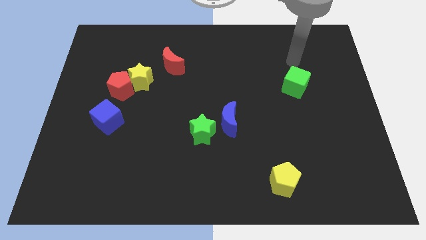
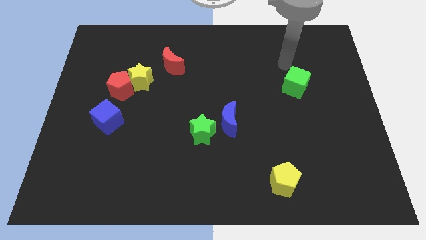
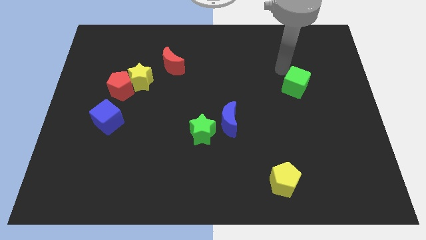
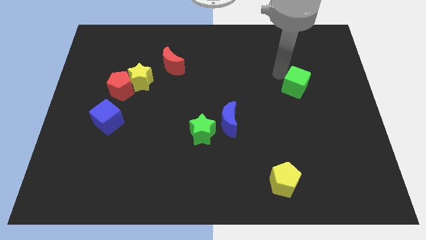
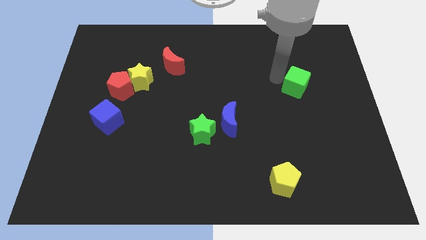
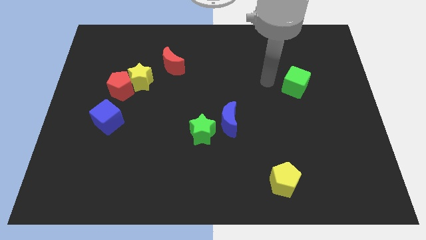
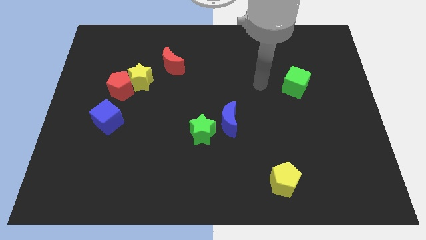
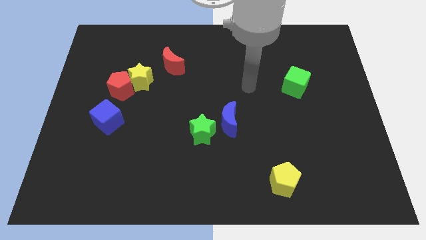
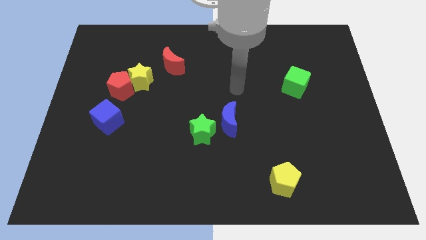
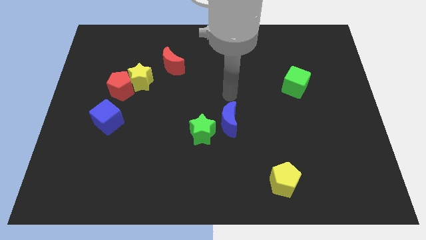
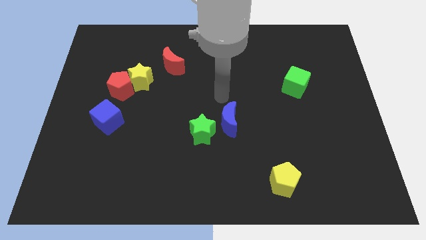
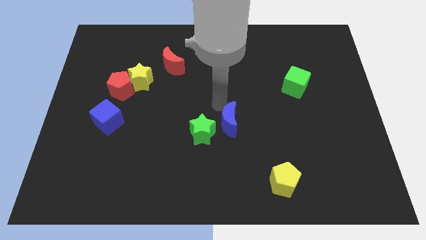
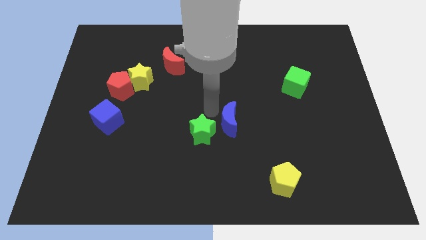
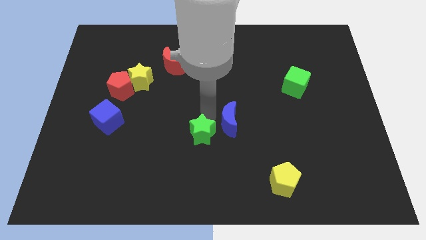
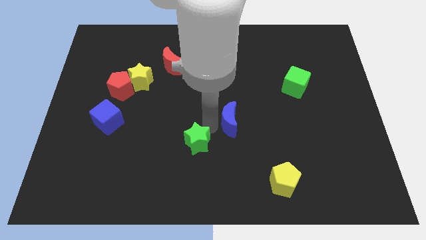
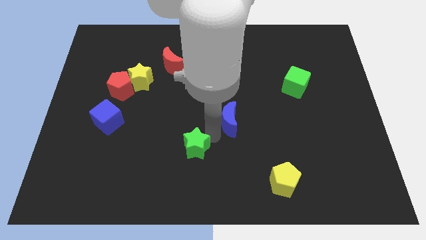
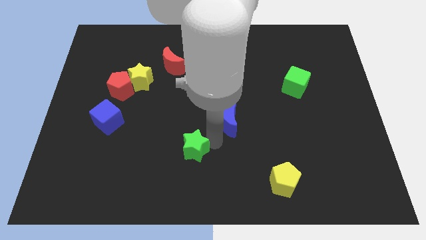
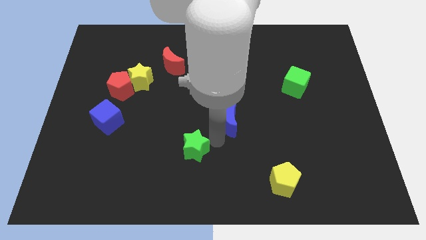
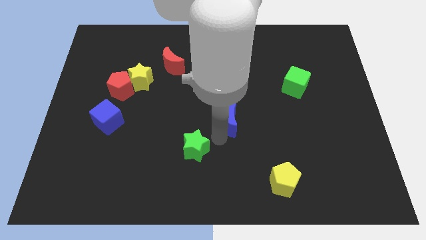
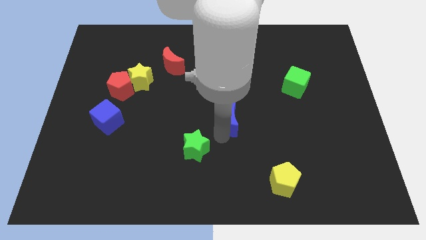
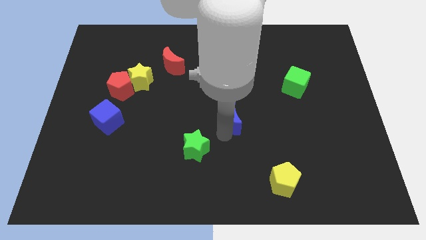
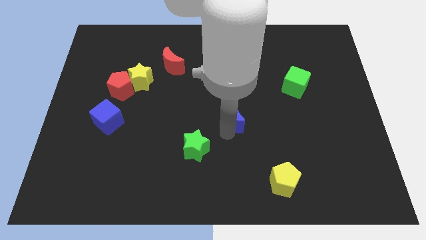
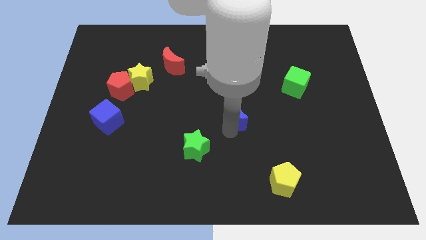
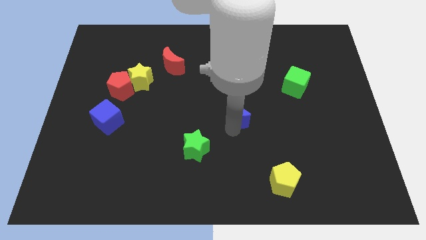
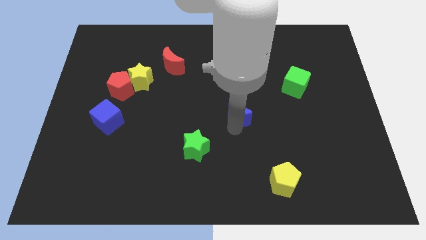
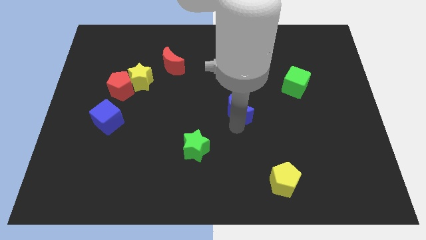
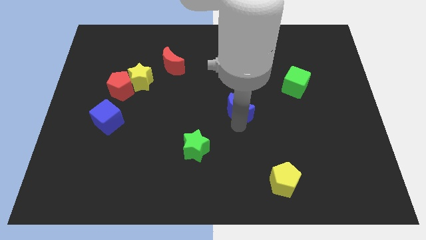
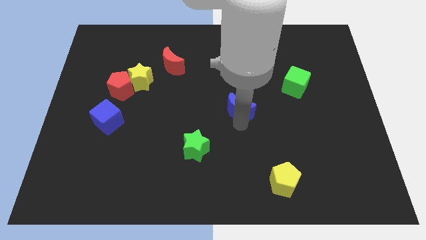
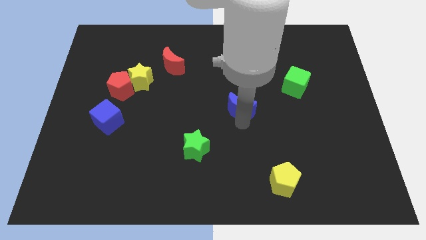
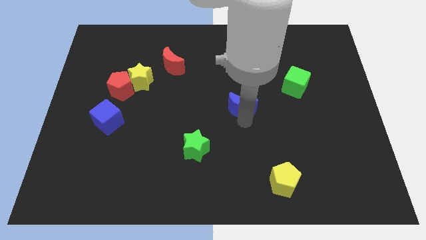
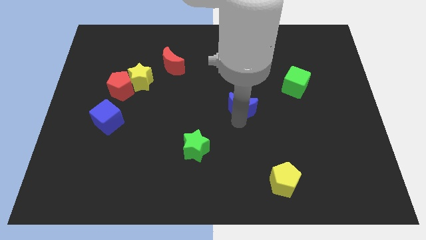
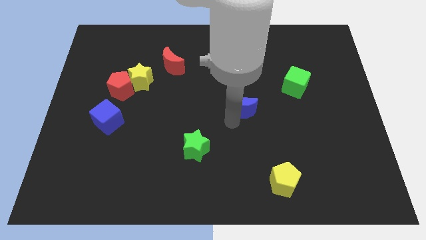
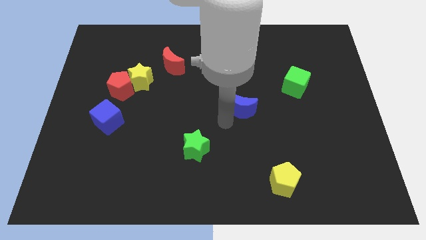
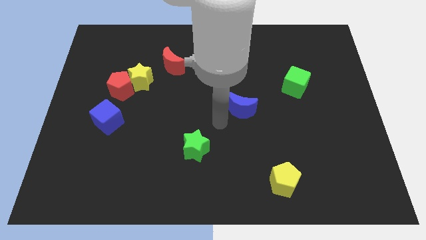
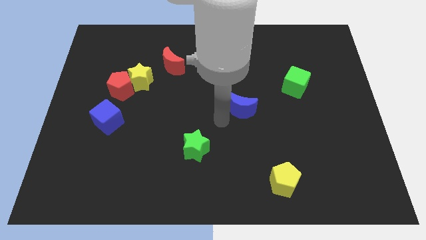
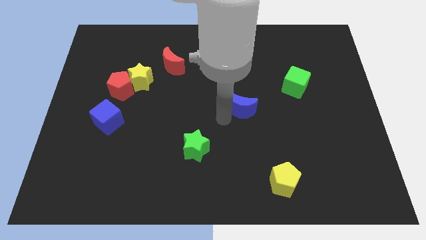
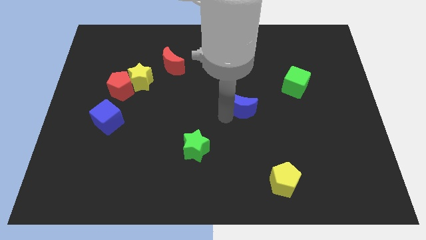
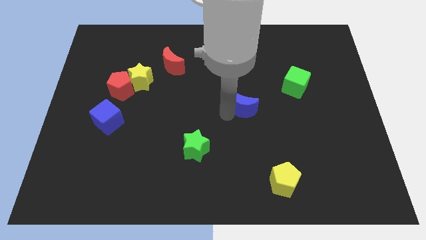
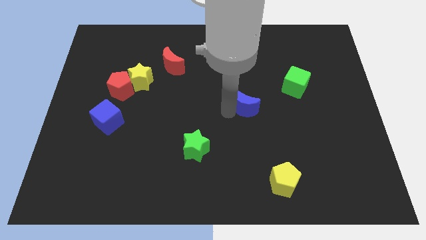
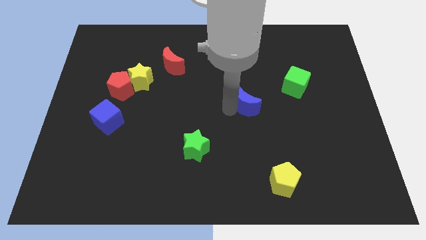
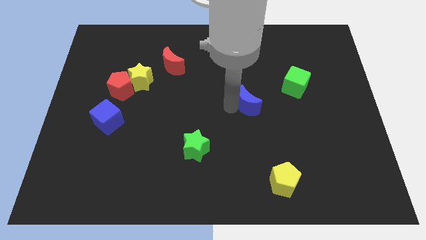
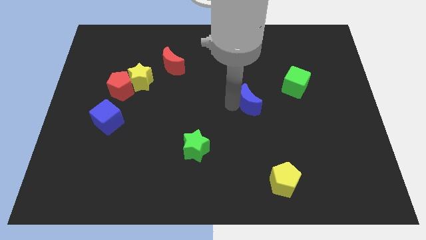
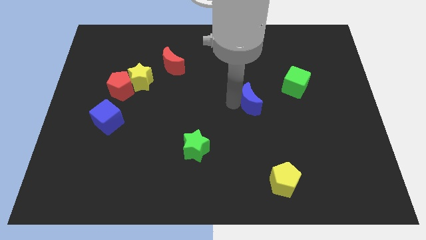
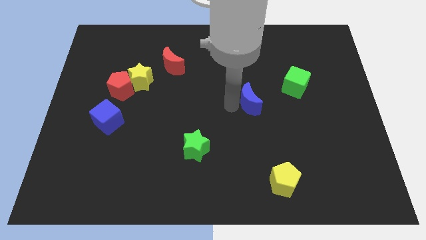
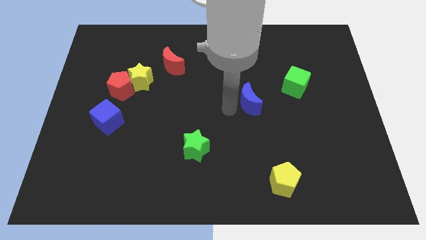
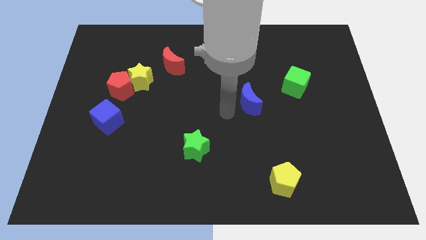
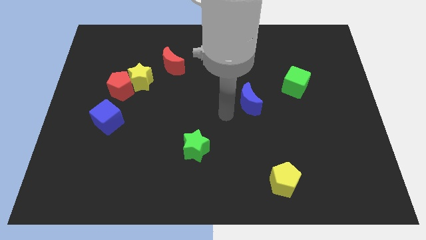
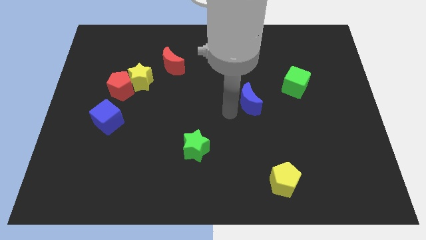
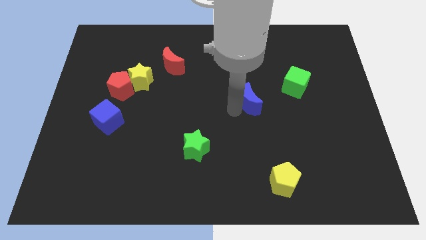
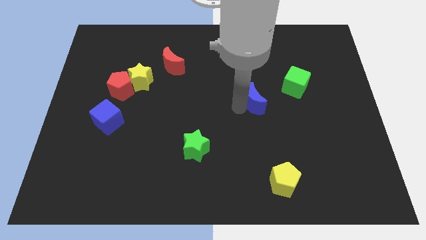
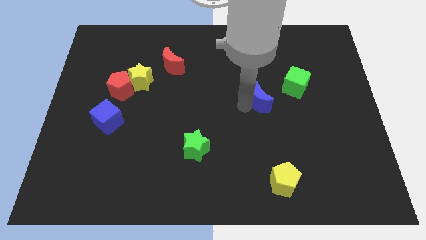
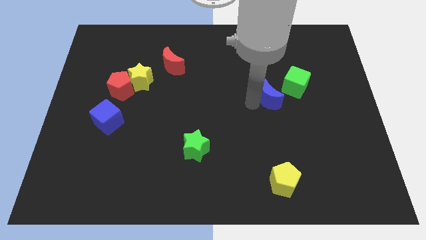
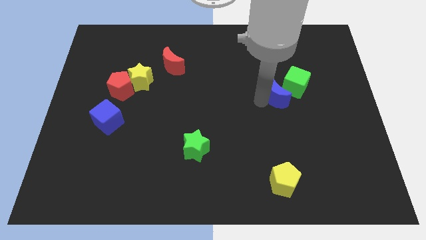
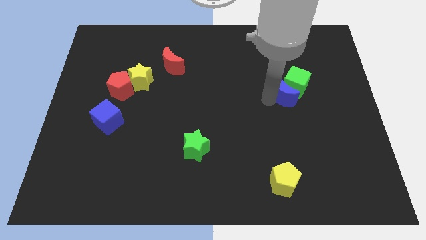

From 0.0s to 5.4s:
move the blue moon next to the green cube

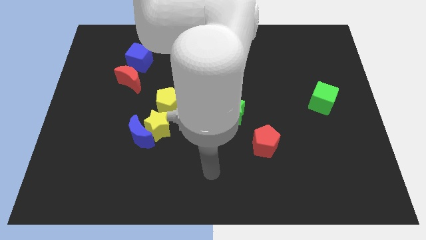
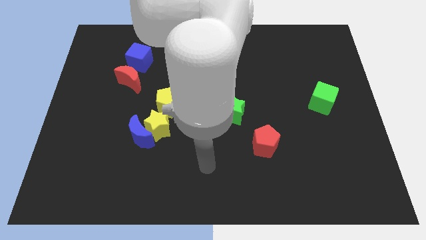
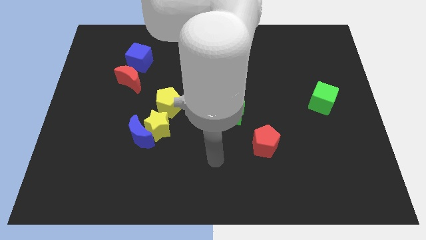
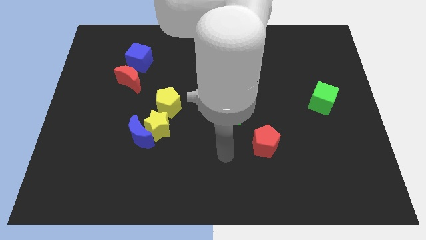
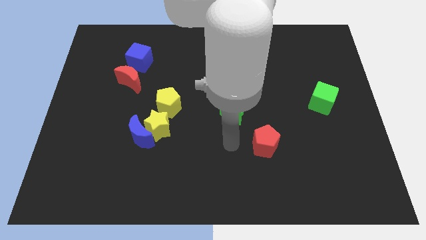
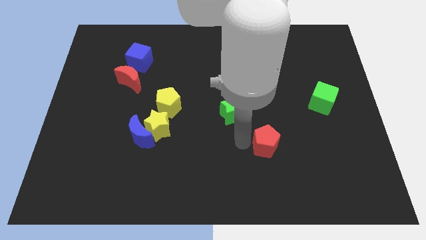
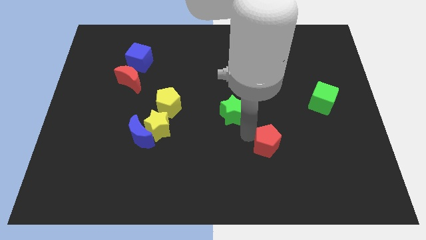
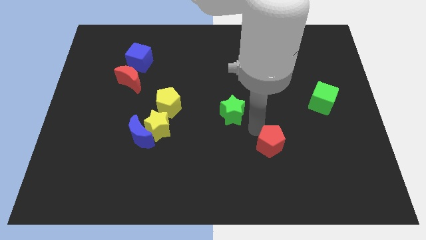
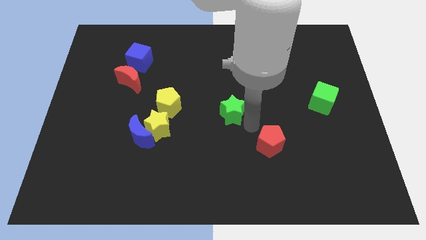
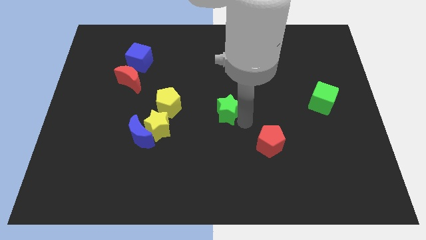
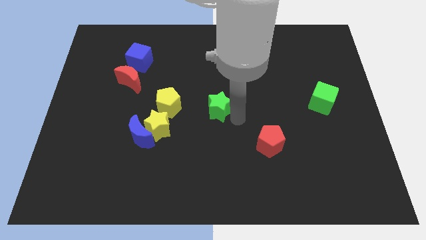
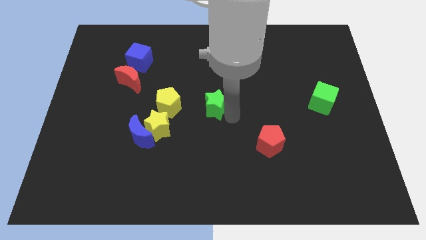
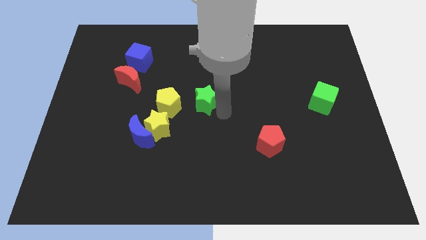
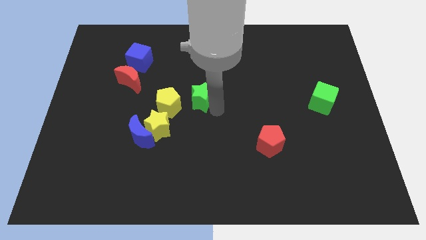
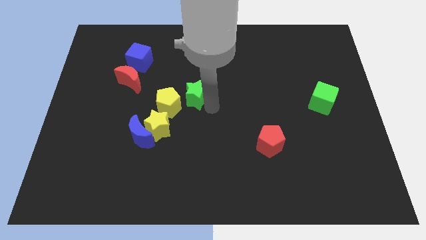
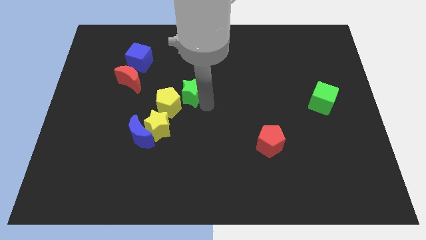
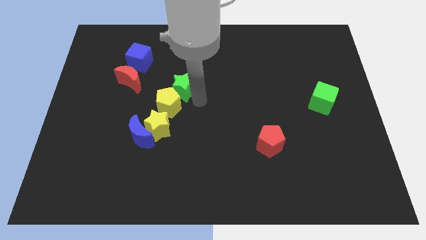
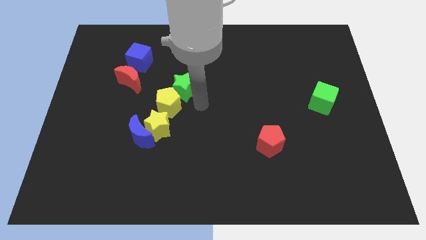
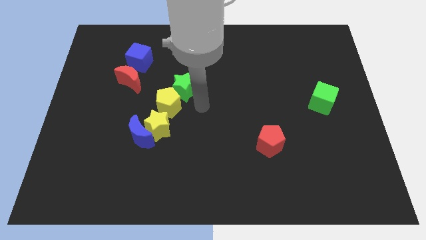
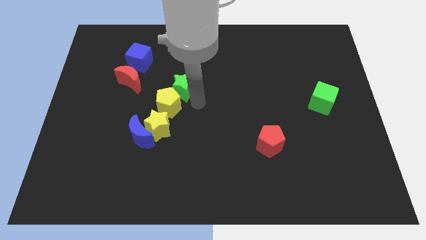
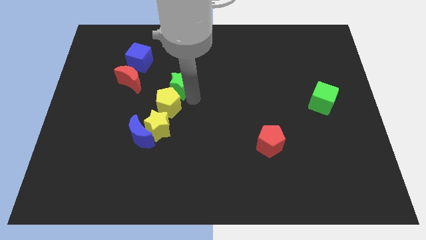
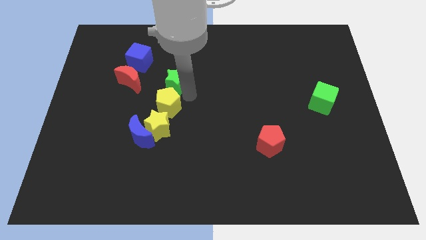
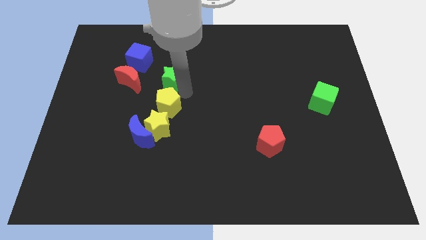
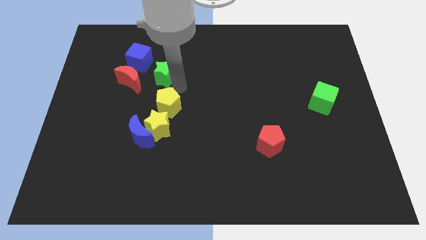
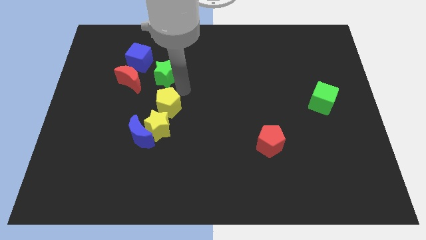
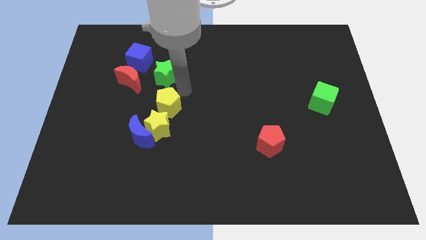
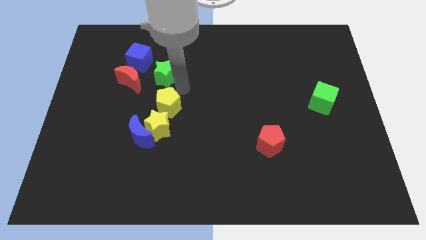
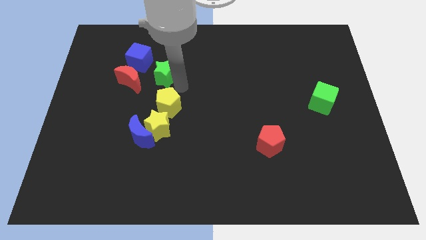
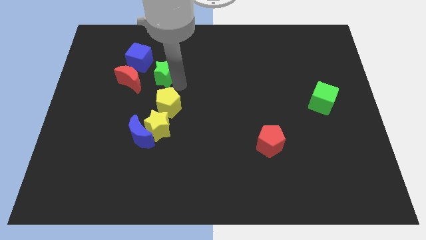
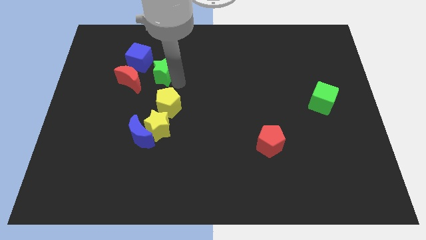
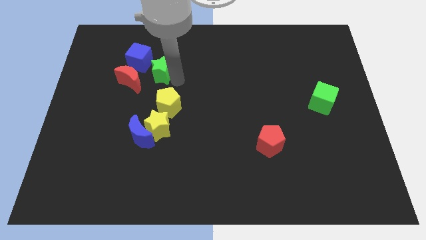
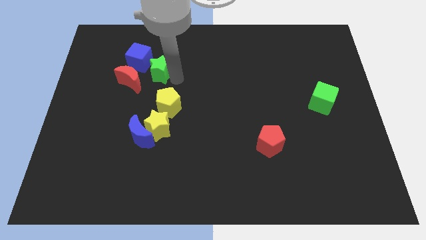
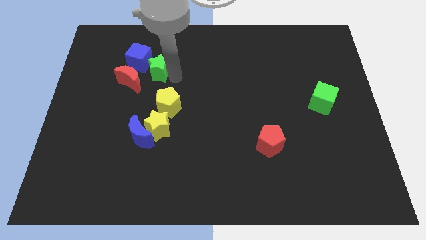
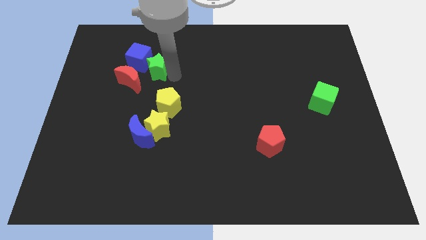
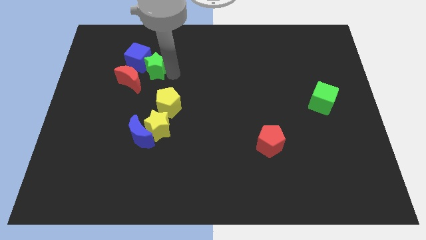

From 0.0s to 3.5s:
push the green star to the blue cube
